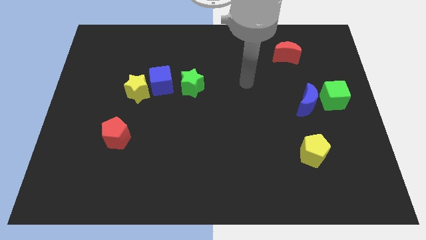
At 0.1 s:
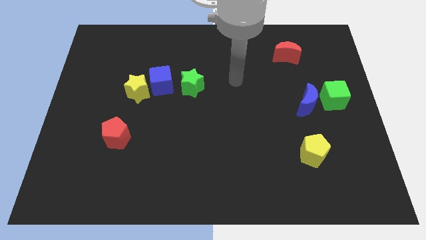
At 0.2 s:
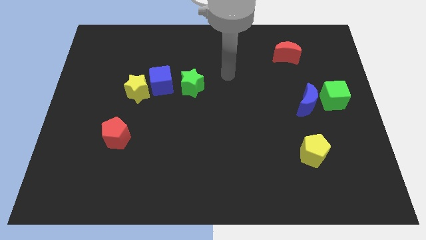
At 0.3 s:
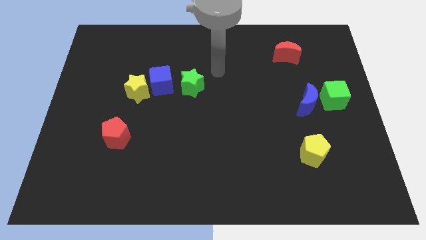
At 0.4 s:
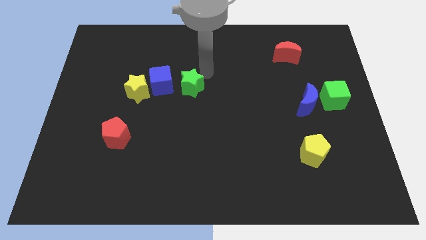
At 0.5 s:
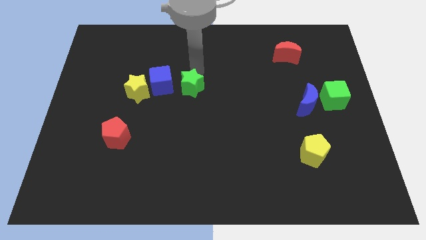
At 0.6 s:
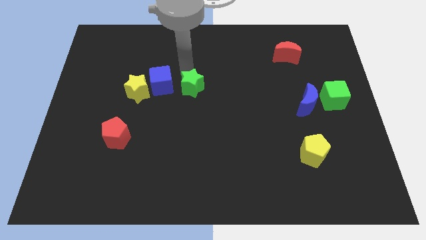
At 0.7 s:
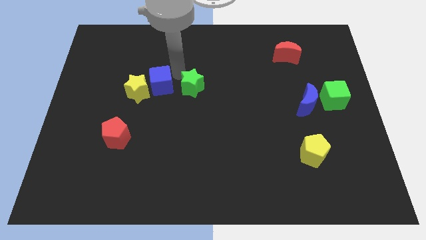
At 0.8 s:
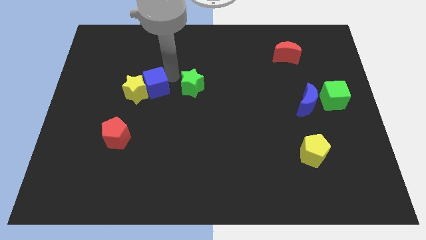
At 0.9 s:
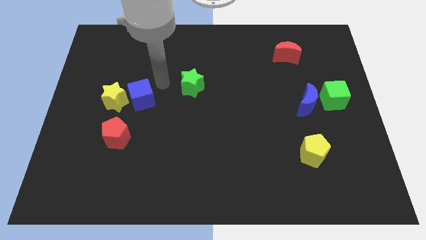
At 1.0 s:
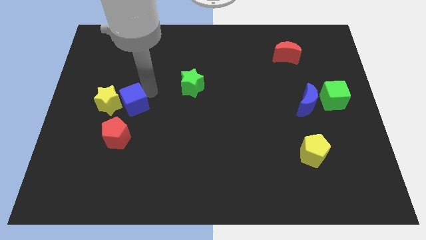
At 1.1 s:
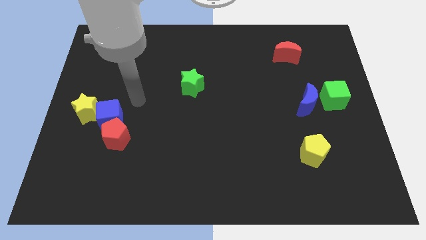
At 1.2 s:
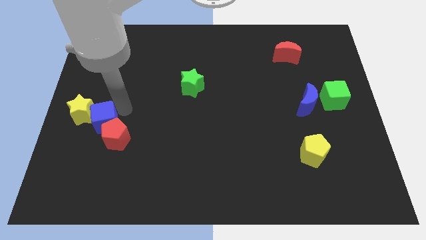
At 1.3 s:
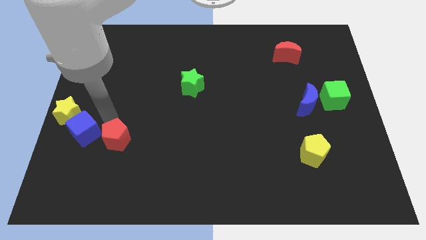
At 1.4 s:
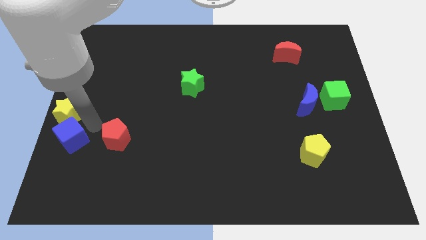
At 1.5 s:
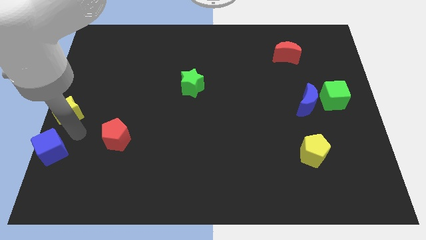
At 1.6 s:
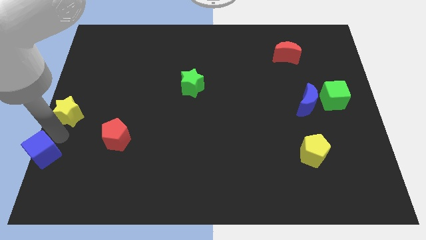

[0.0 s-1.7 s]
separate the yellow star from the blue cube

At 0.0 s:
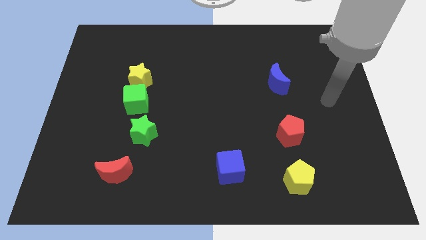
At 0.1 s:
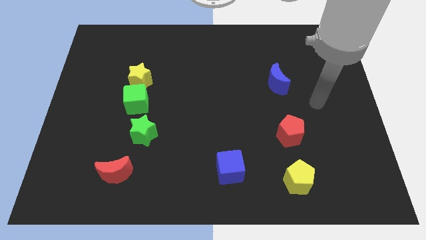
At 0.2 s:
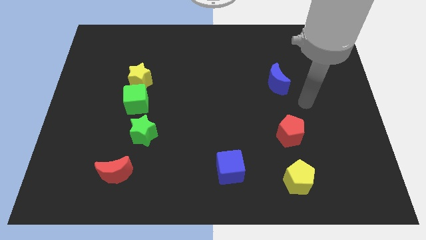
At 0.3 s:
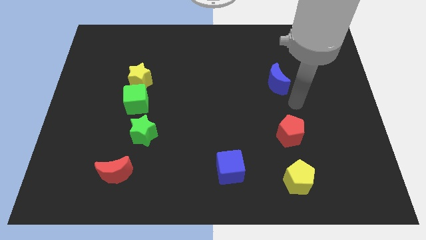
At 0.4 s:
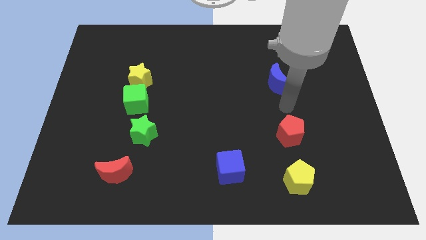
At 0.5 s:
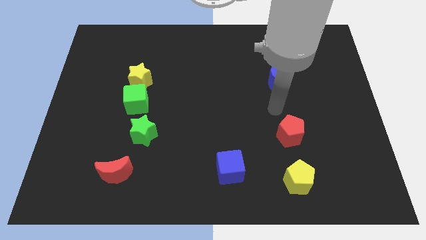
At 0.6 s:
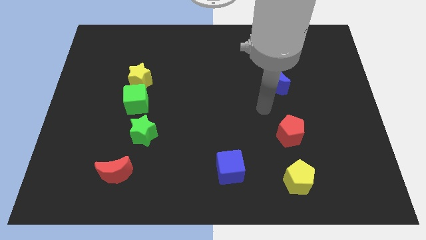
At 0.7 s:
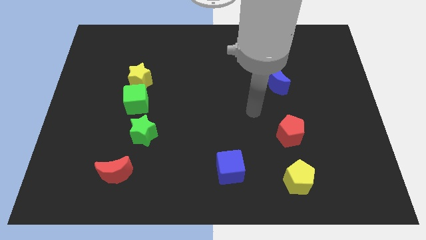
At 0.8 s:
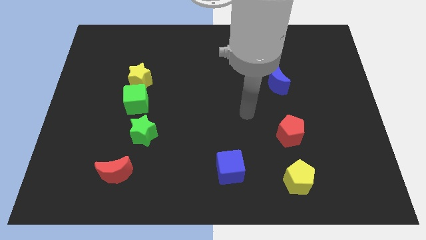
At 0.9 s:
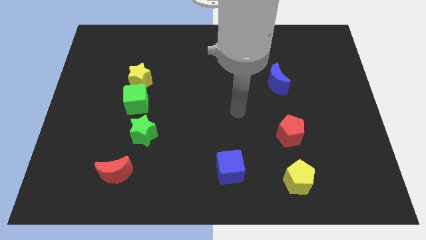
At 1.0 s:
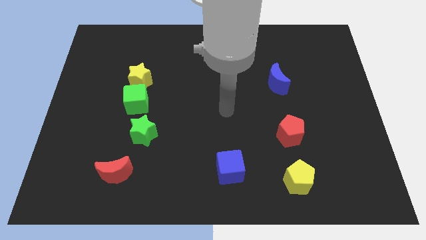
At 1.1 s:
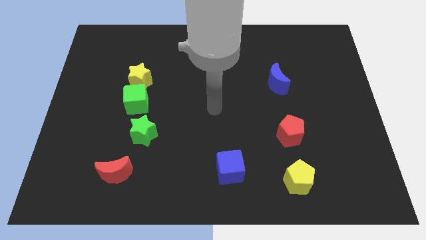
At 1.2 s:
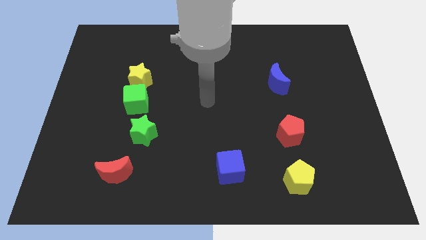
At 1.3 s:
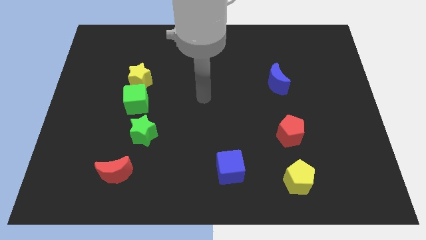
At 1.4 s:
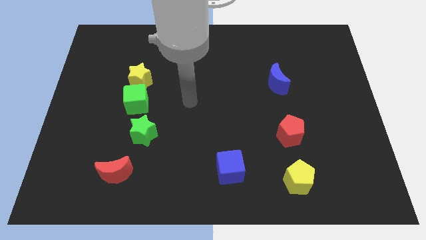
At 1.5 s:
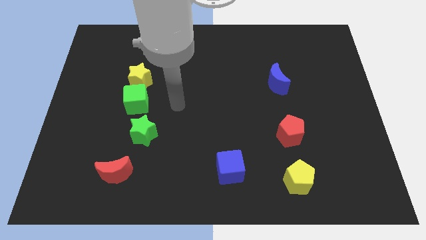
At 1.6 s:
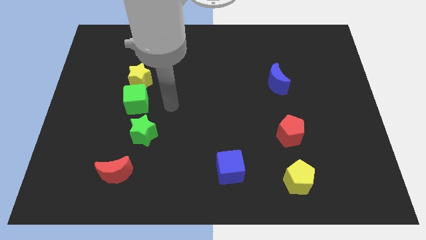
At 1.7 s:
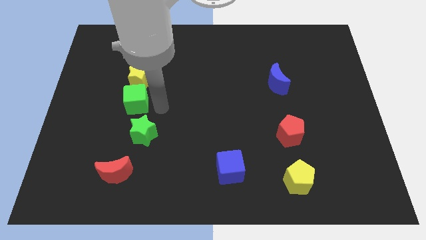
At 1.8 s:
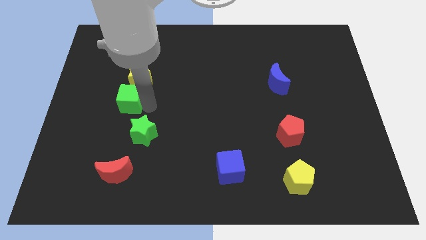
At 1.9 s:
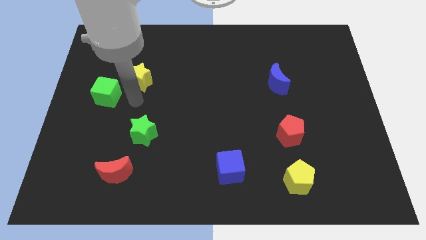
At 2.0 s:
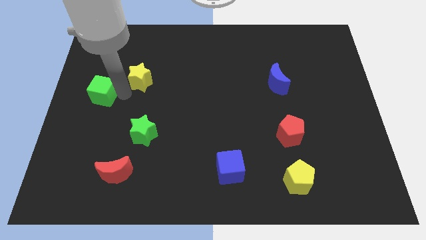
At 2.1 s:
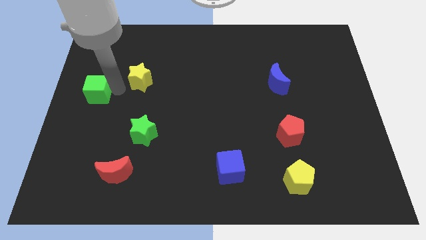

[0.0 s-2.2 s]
separate the yellow star from the green cube

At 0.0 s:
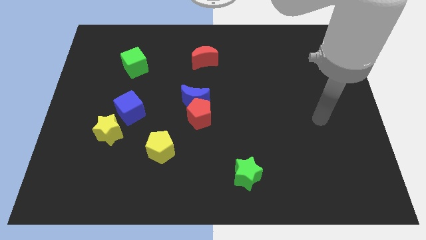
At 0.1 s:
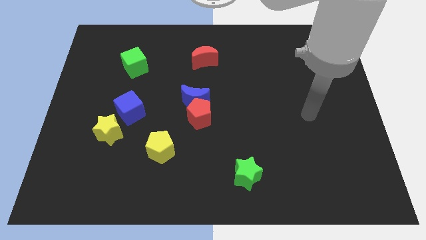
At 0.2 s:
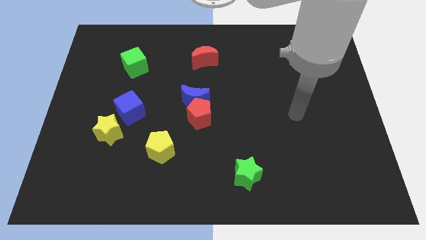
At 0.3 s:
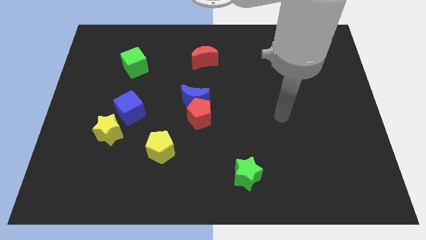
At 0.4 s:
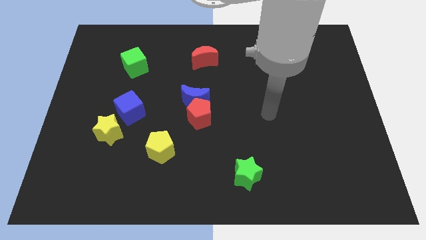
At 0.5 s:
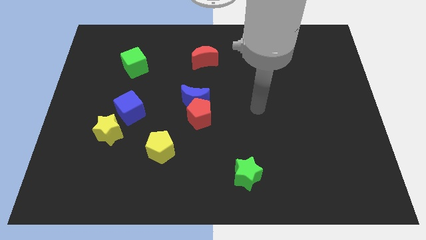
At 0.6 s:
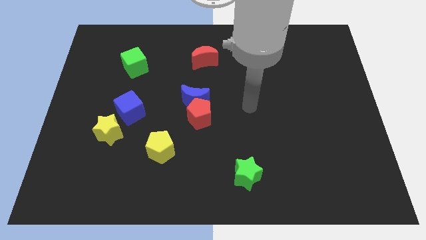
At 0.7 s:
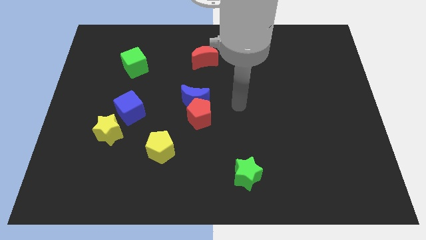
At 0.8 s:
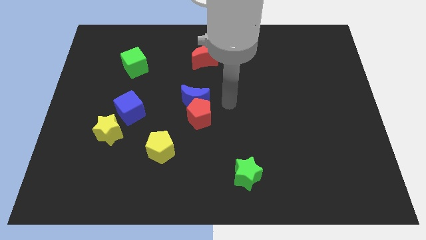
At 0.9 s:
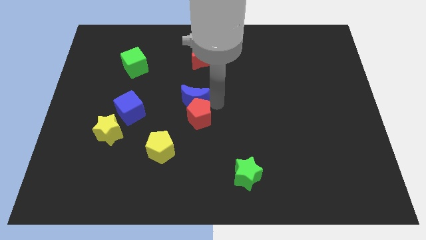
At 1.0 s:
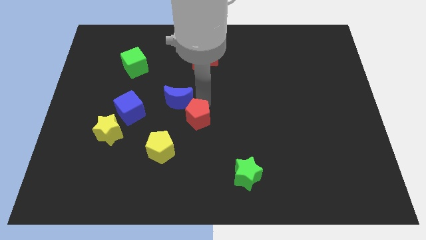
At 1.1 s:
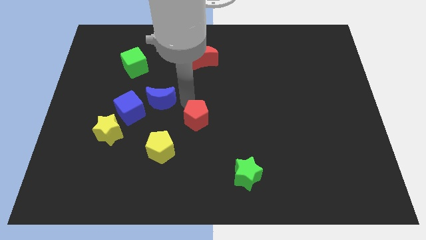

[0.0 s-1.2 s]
separate the red pentagon from the blue moon

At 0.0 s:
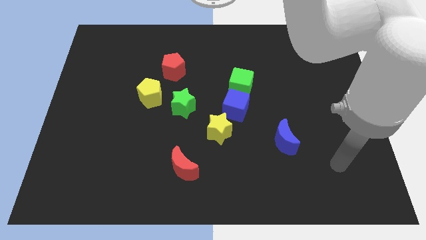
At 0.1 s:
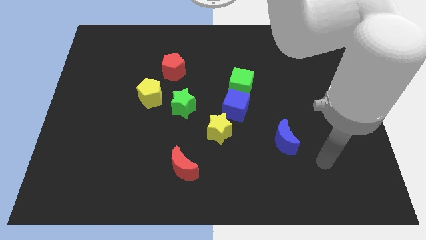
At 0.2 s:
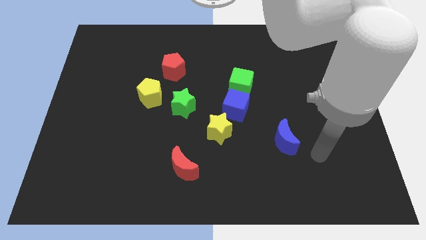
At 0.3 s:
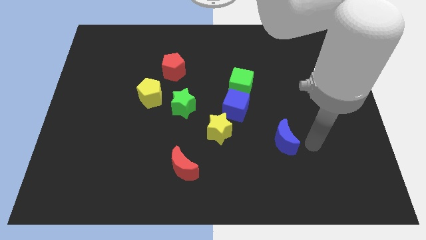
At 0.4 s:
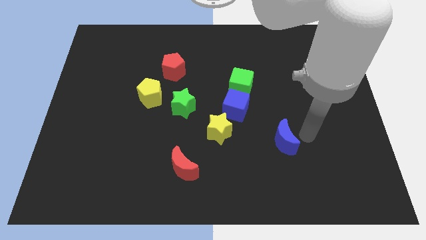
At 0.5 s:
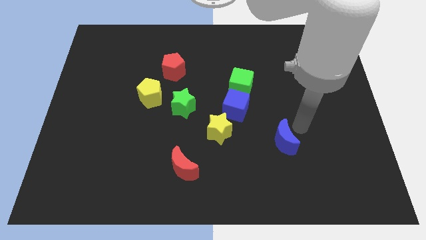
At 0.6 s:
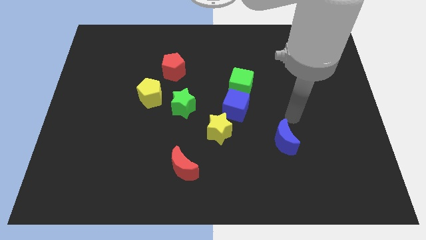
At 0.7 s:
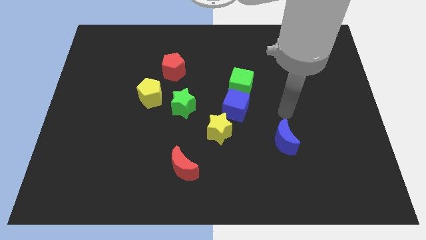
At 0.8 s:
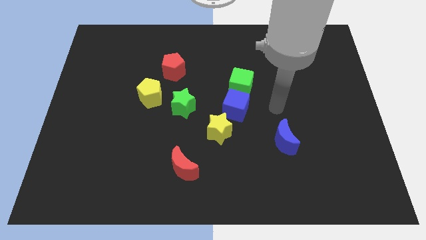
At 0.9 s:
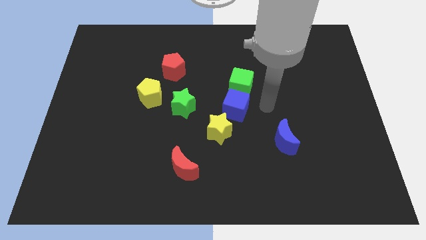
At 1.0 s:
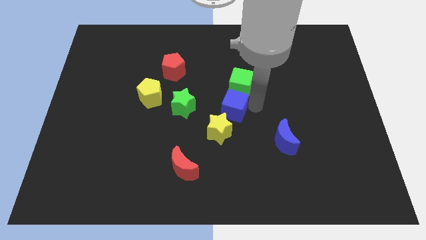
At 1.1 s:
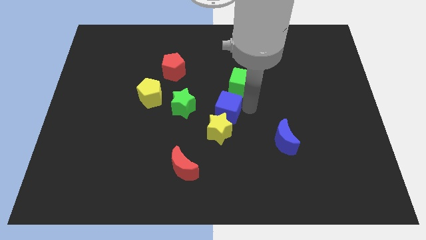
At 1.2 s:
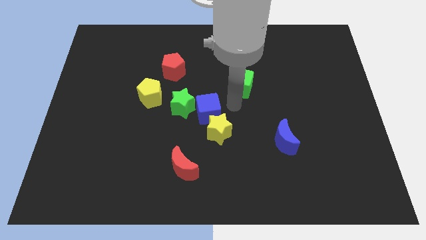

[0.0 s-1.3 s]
move the green cube away from the blue cube

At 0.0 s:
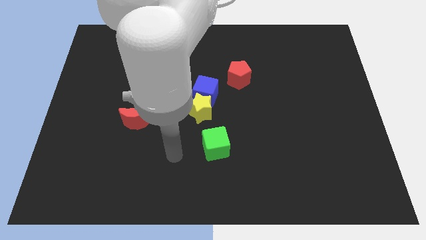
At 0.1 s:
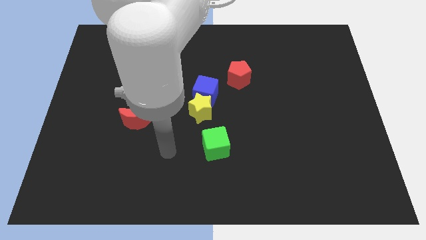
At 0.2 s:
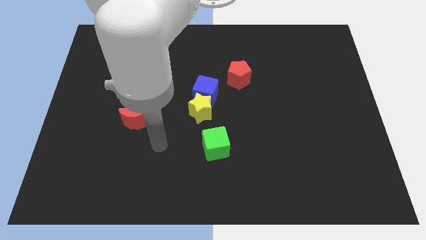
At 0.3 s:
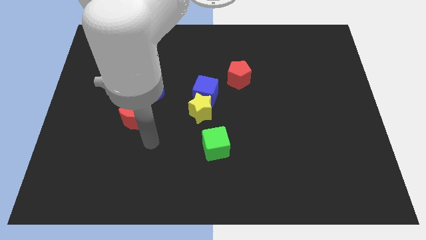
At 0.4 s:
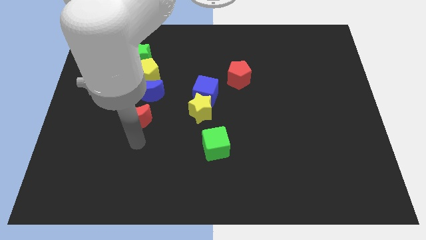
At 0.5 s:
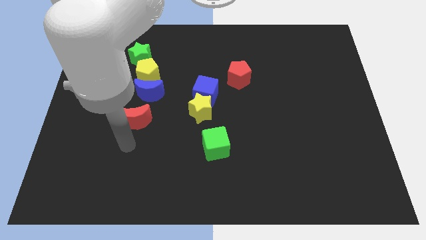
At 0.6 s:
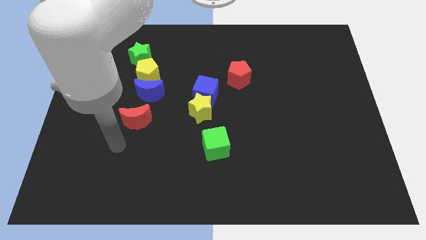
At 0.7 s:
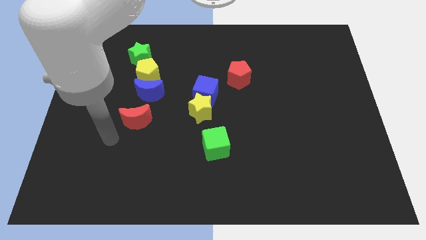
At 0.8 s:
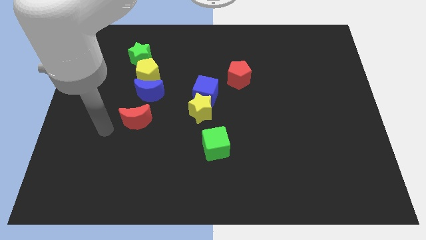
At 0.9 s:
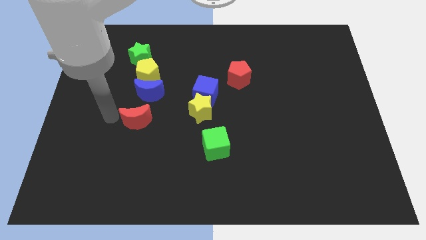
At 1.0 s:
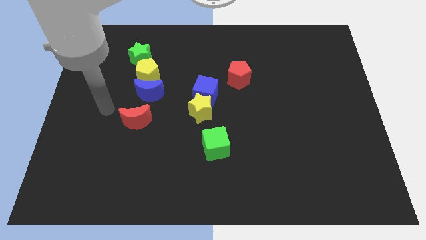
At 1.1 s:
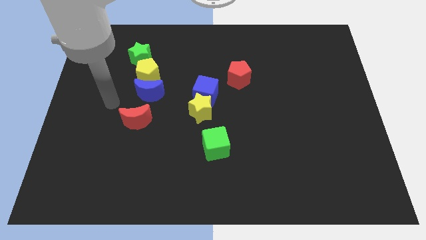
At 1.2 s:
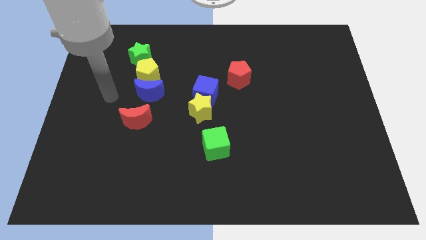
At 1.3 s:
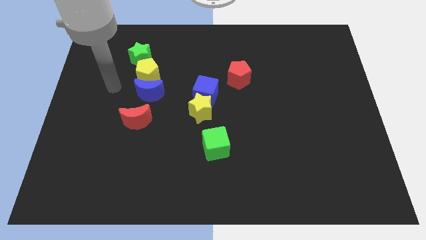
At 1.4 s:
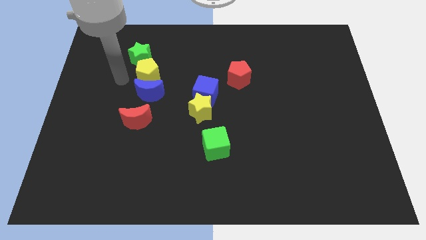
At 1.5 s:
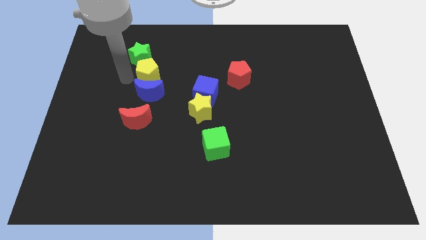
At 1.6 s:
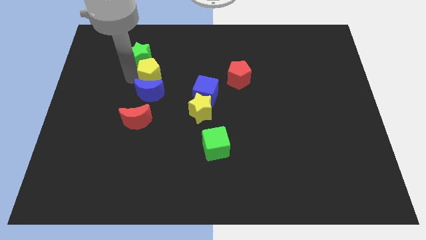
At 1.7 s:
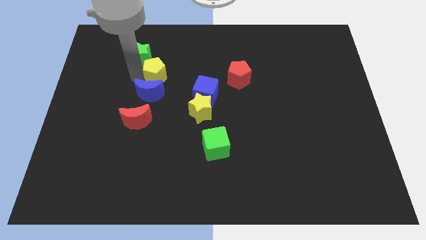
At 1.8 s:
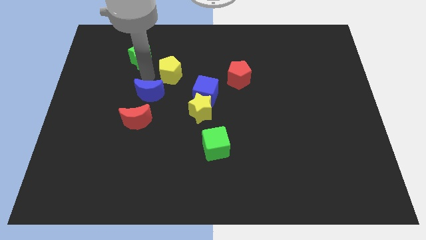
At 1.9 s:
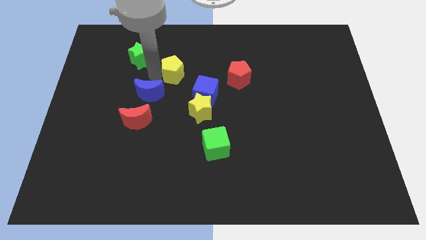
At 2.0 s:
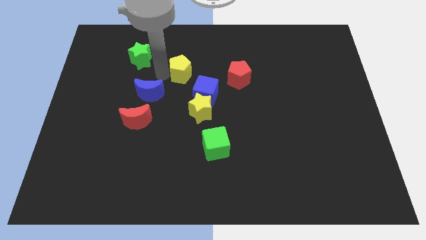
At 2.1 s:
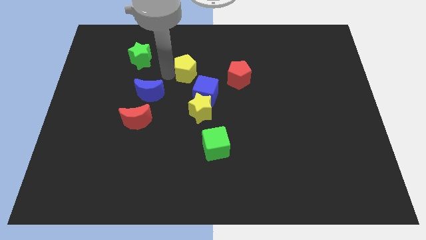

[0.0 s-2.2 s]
pull the yellow pentagon apart from the blue moon and green star

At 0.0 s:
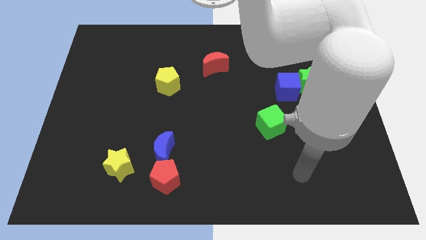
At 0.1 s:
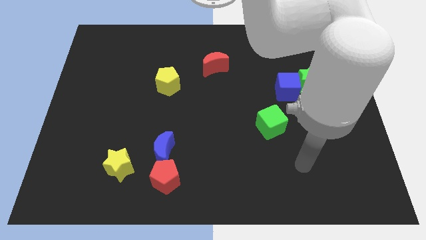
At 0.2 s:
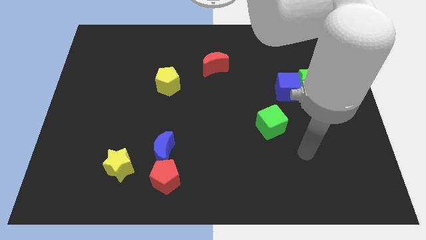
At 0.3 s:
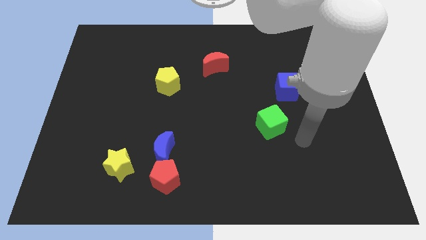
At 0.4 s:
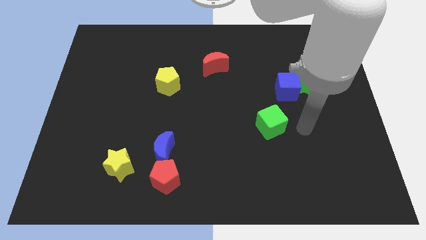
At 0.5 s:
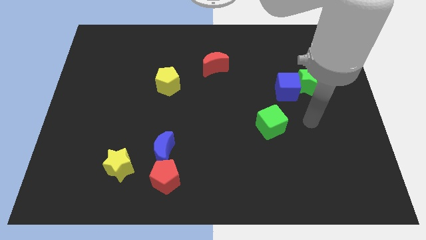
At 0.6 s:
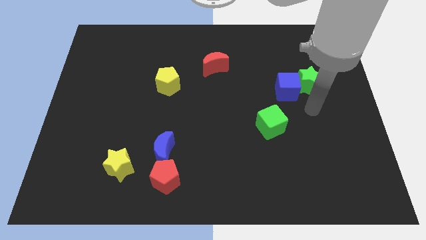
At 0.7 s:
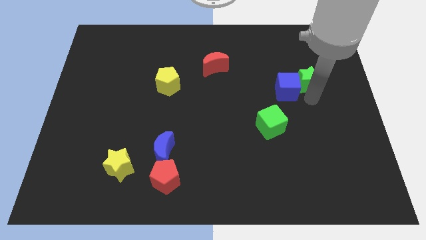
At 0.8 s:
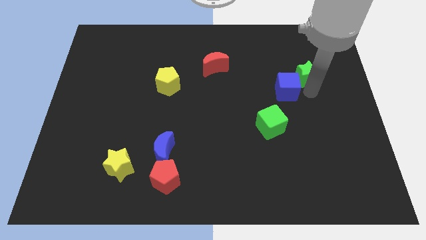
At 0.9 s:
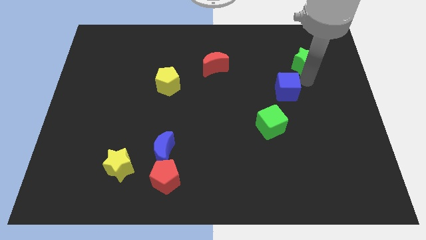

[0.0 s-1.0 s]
separate the blue cube from the green star
